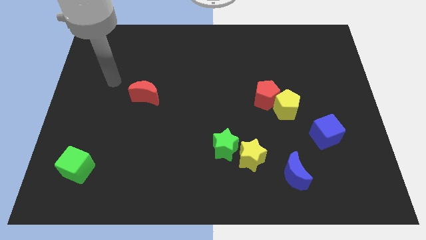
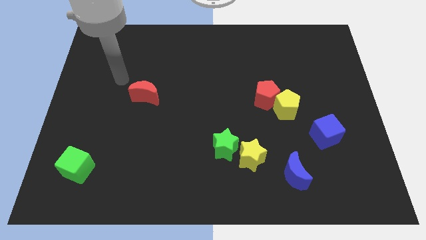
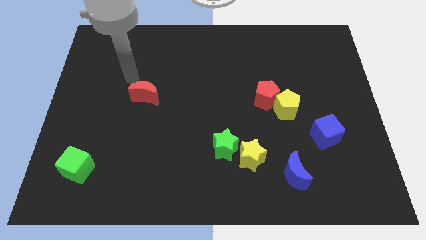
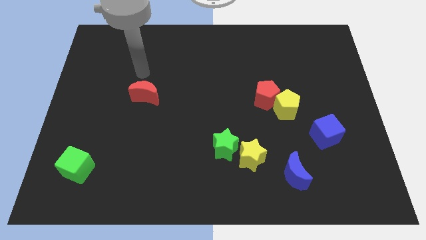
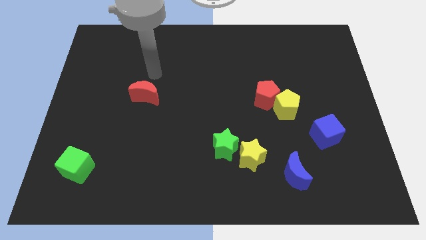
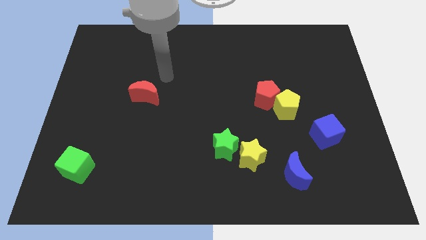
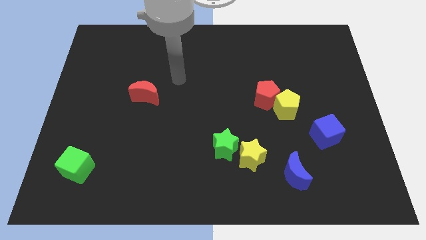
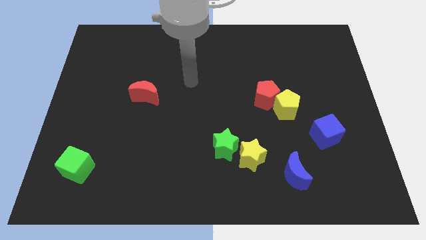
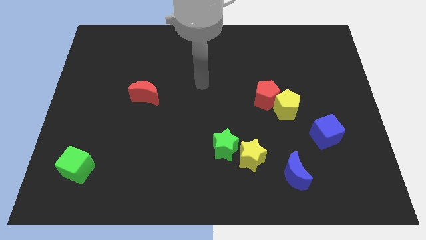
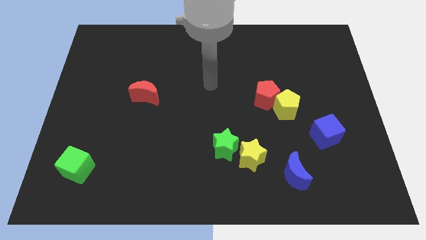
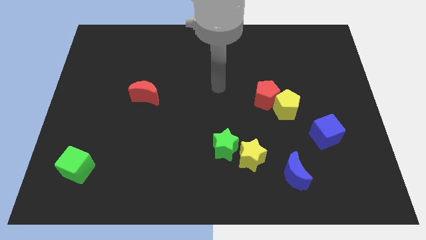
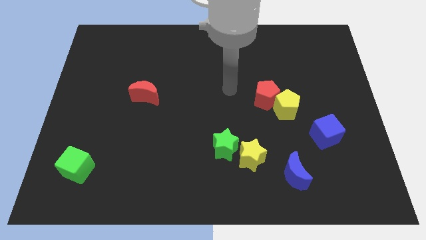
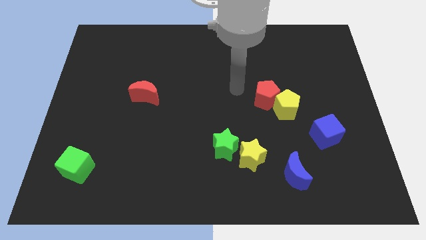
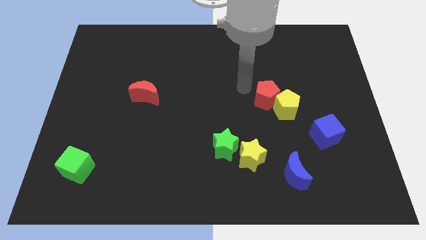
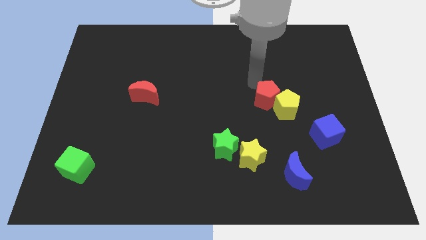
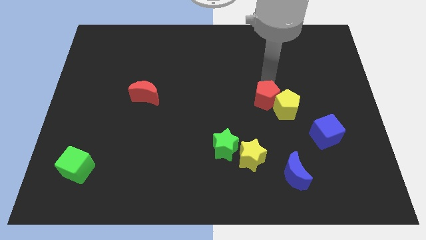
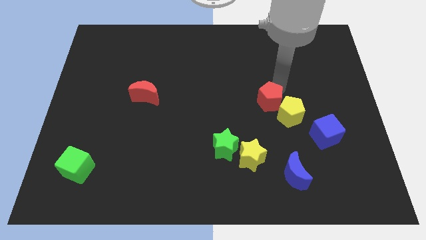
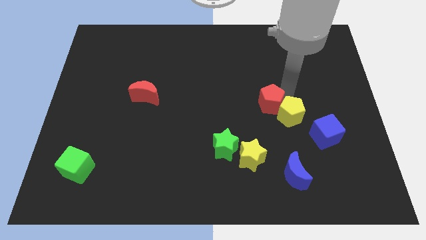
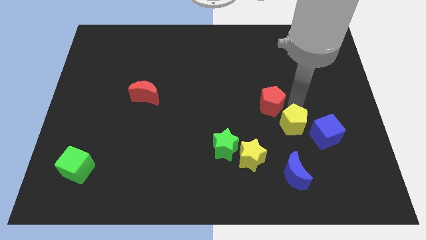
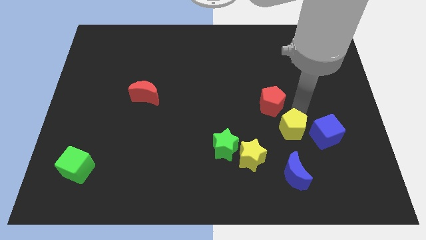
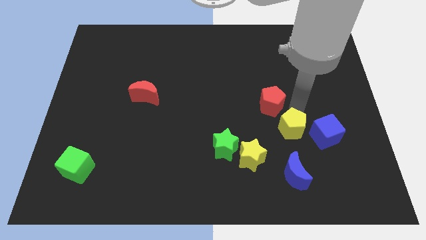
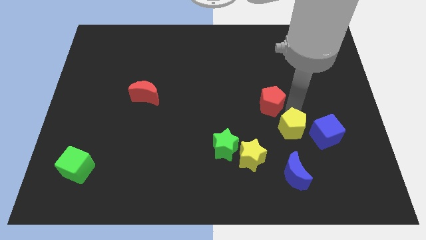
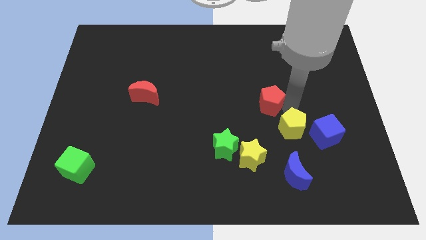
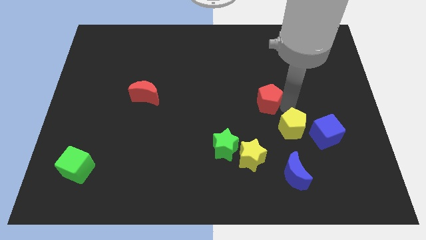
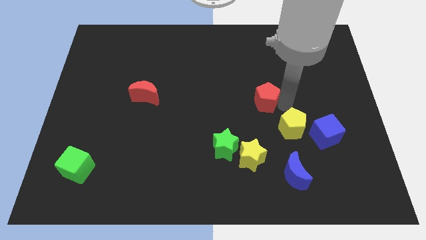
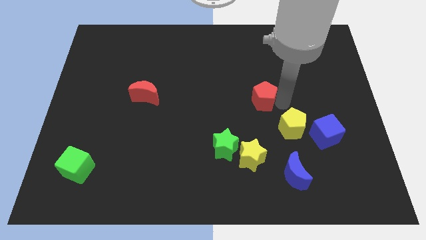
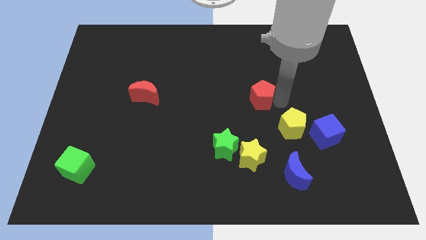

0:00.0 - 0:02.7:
move the red pentagon away from the yellow pentagon

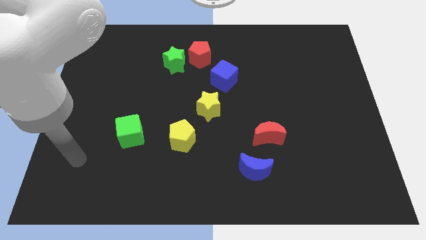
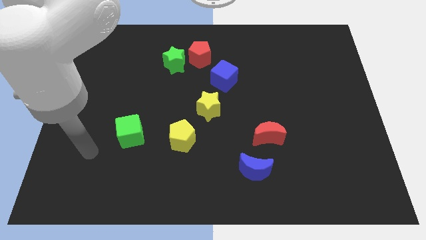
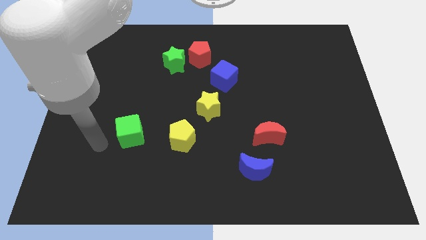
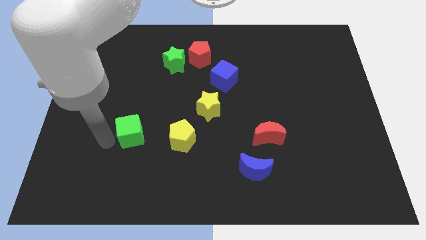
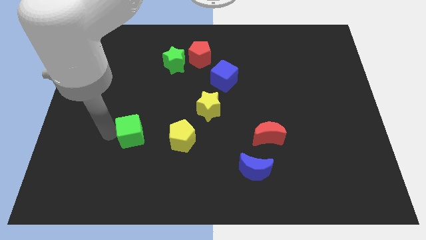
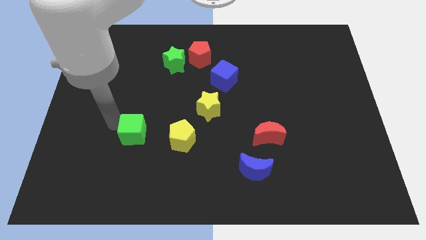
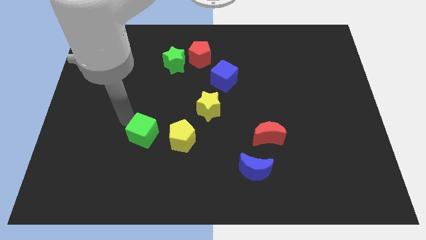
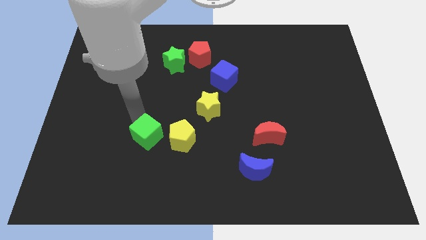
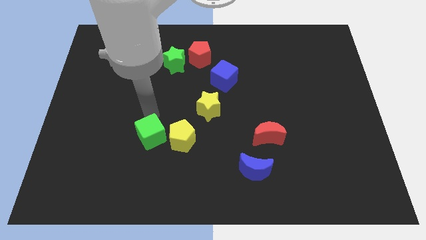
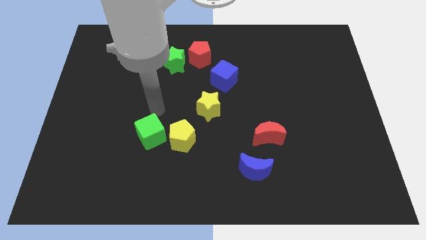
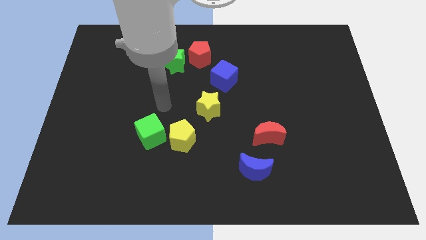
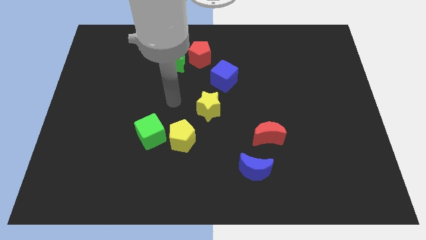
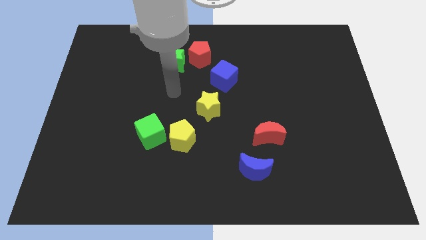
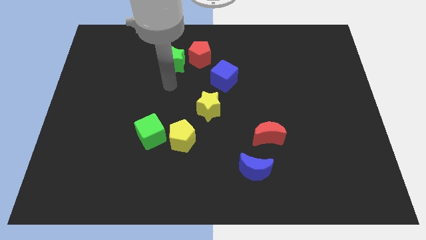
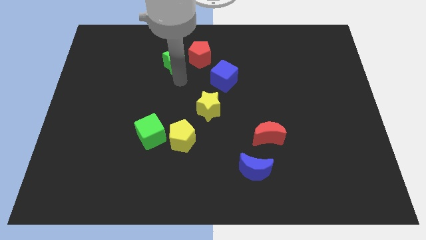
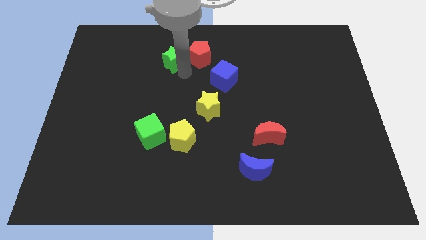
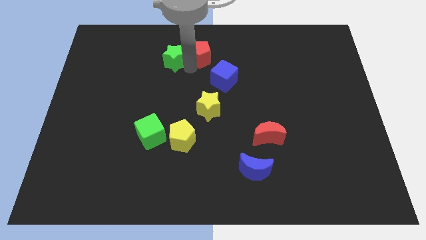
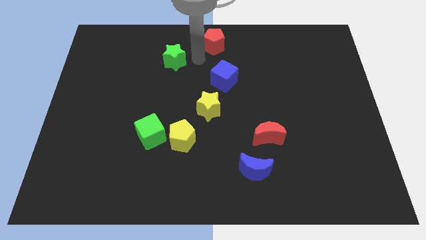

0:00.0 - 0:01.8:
pull the green star apart from the red pentagon

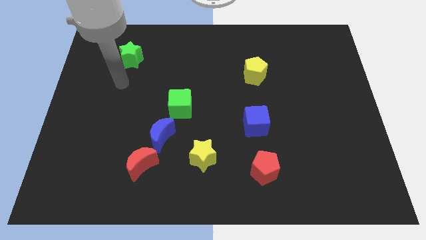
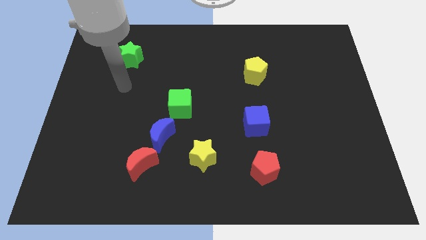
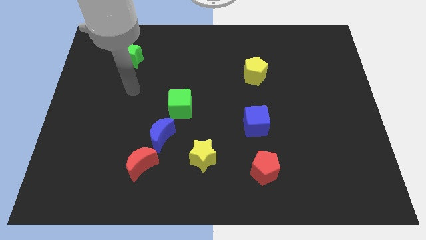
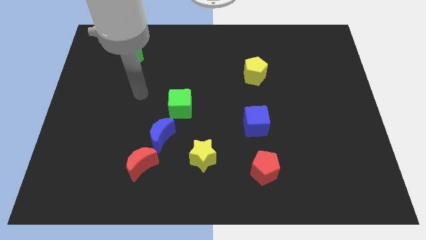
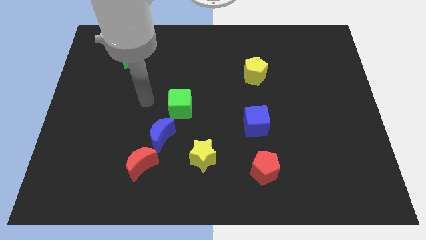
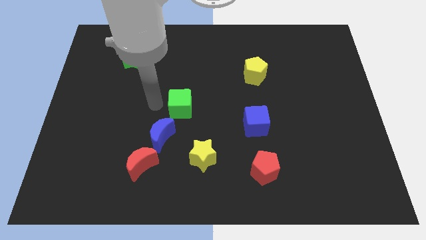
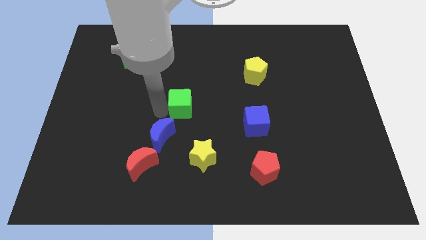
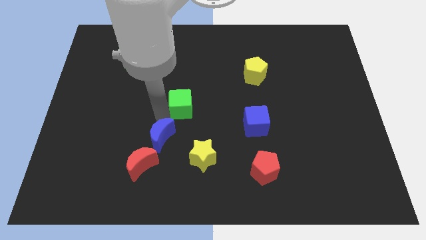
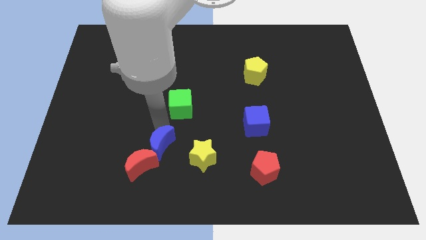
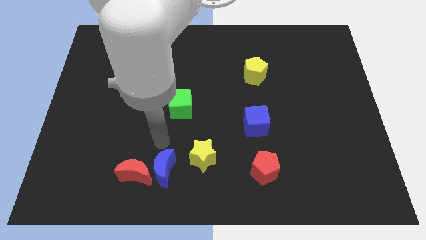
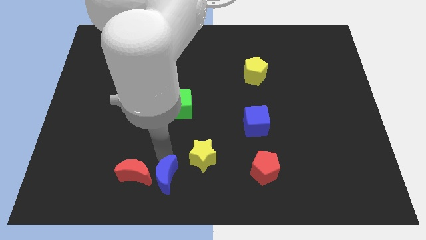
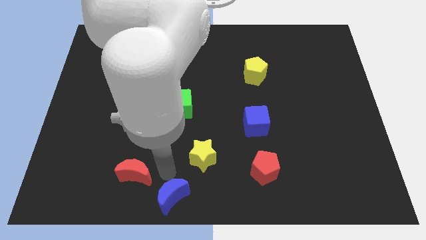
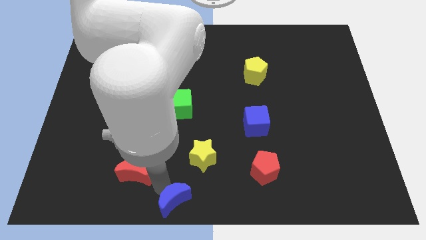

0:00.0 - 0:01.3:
move the red moon away from the blue moon

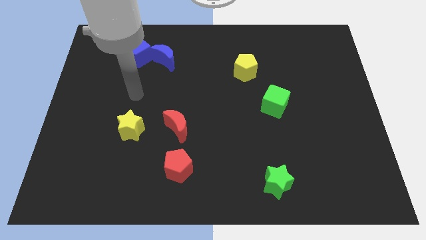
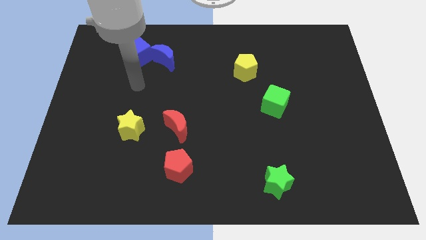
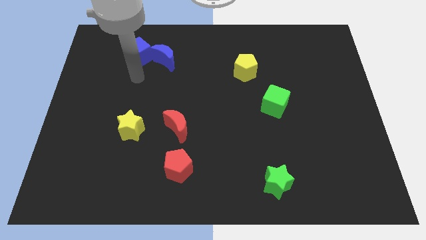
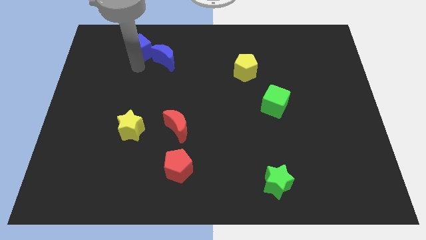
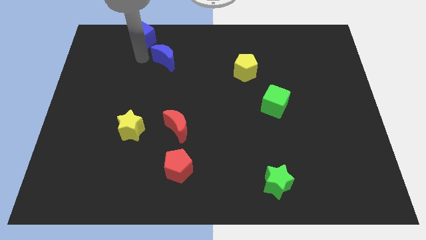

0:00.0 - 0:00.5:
pull the blue moon apart from the blue cube

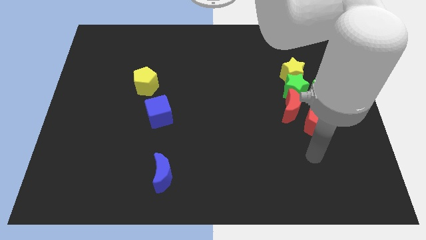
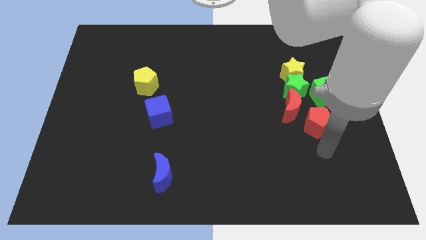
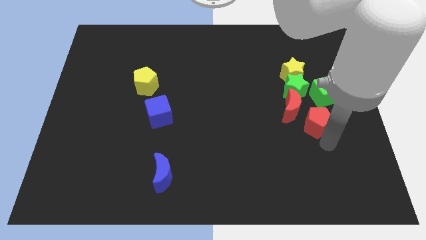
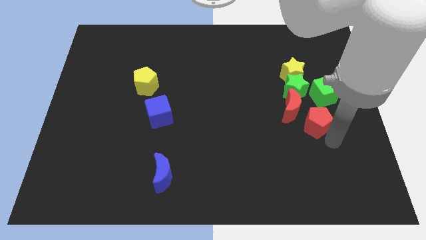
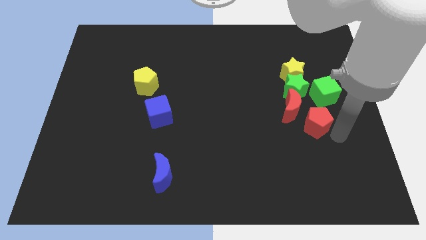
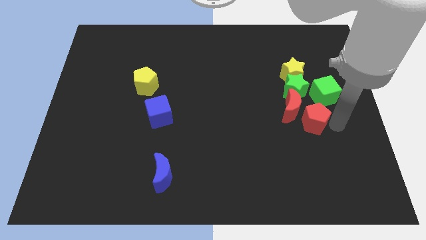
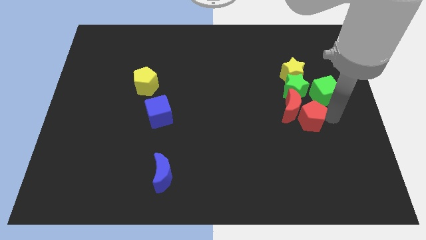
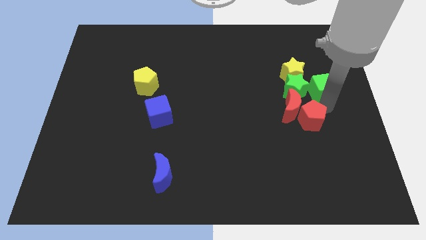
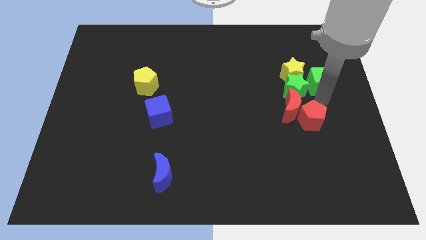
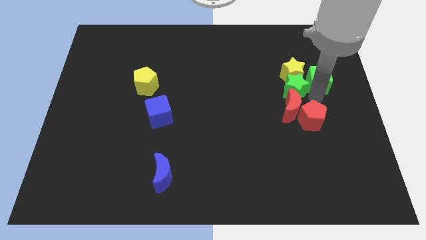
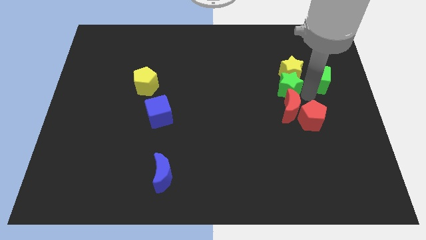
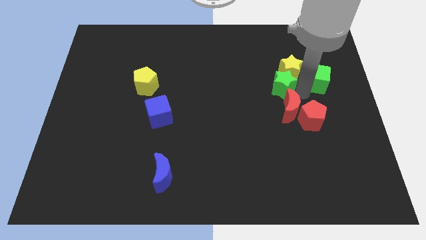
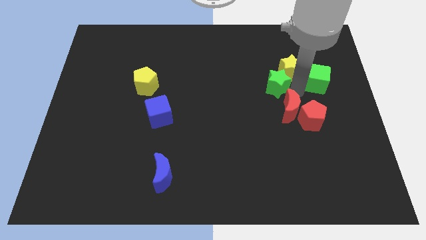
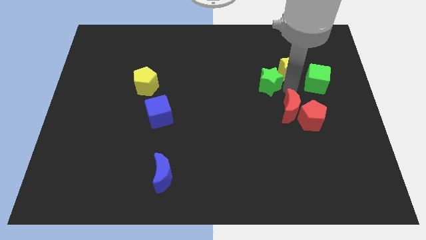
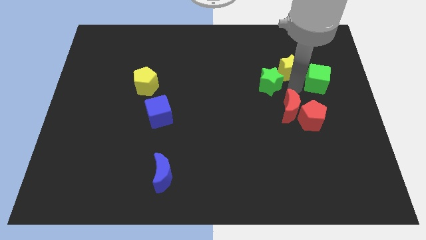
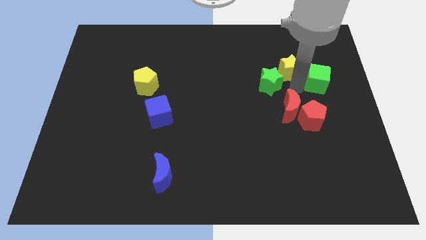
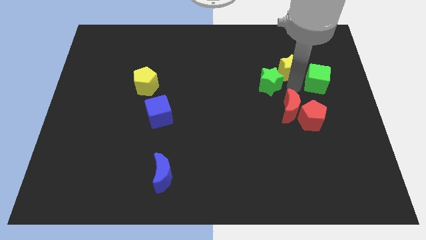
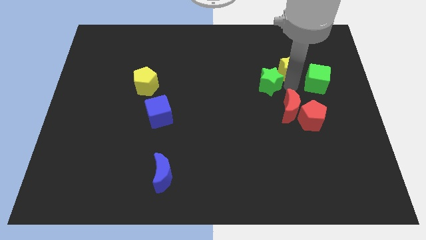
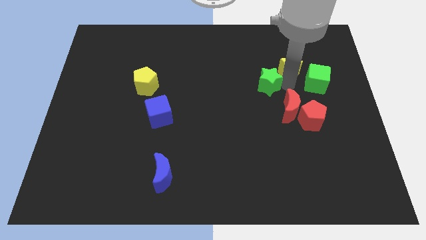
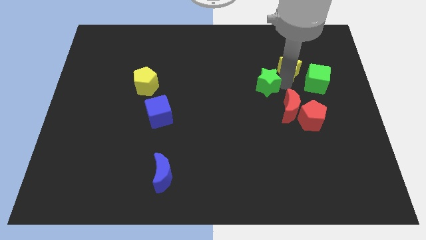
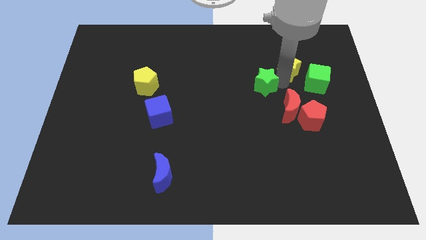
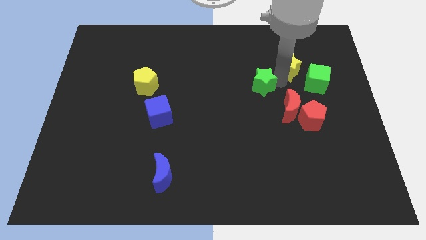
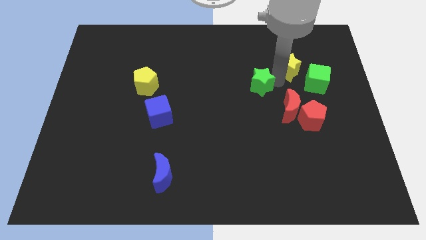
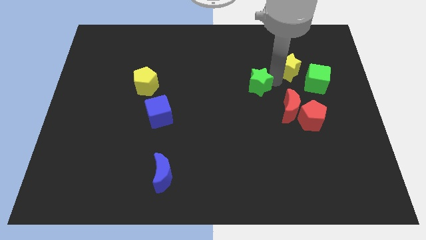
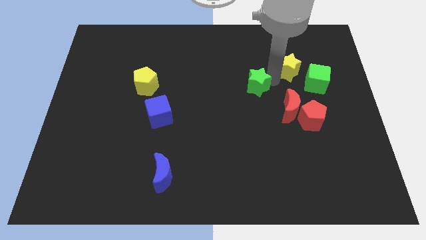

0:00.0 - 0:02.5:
move the green star away from the yellow star, red moon, and green cube

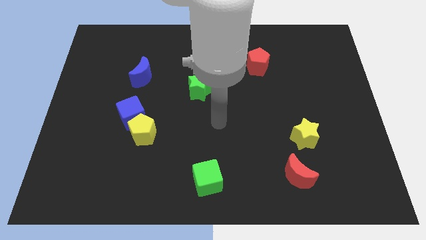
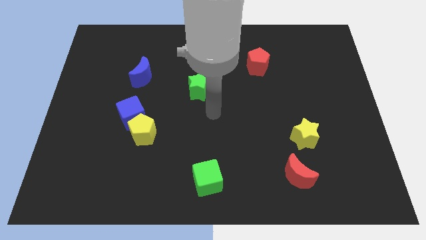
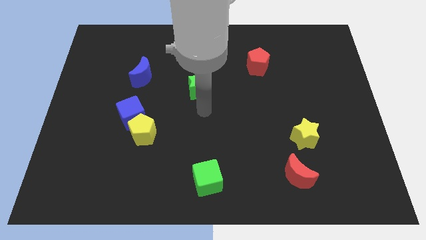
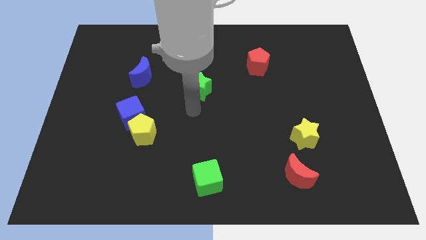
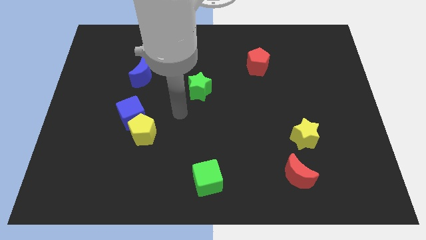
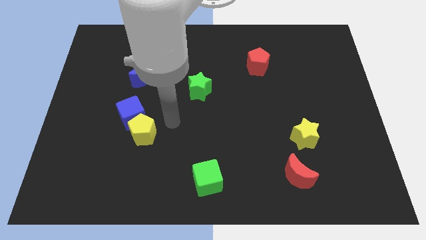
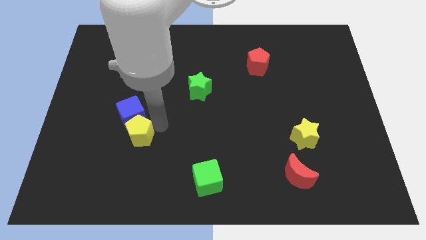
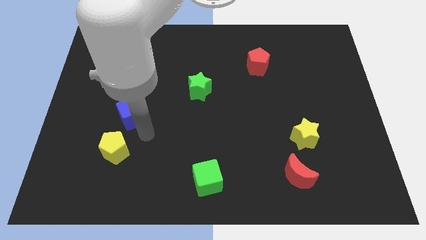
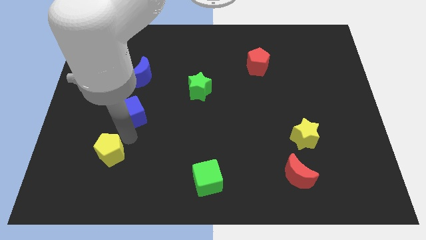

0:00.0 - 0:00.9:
separate the blue cube from the yellow pentagon
